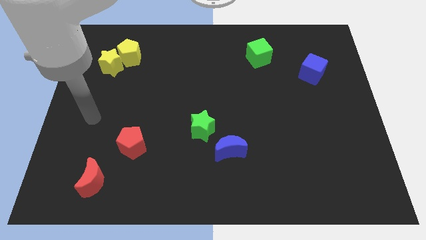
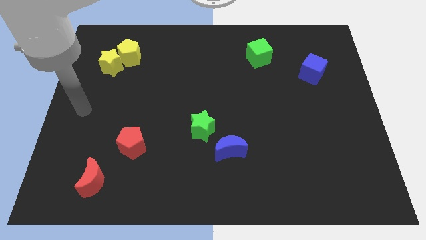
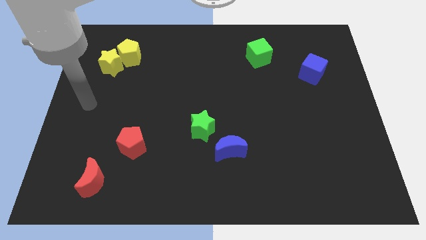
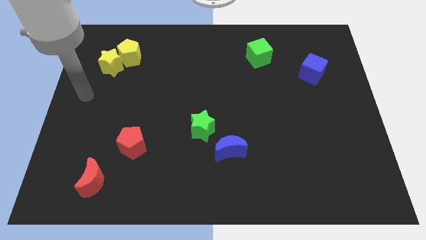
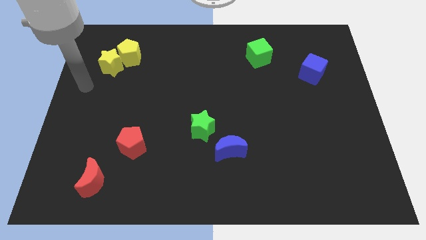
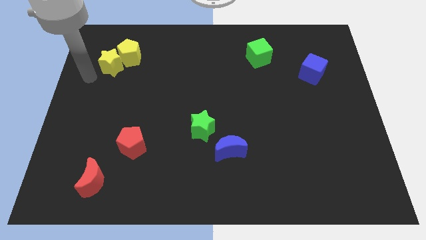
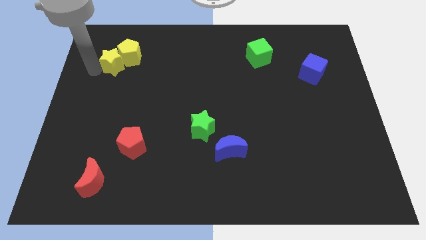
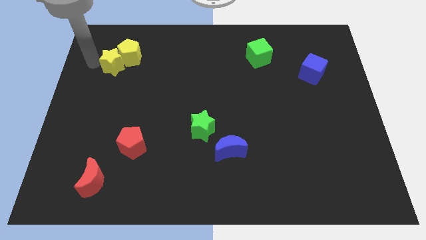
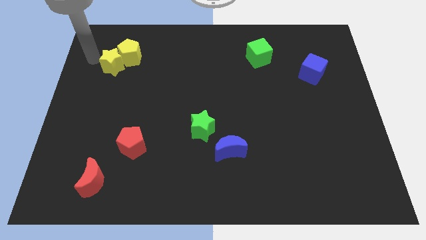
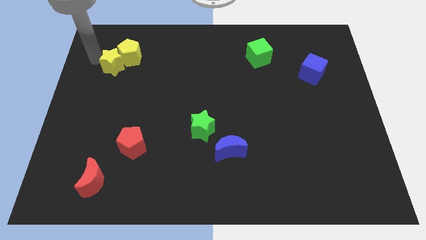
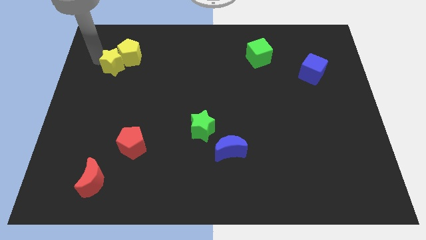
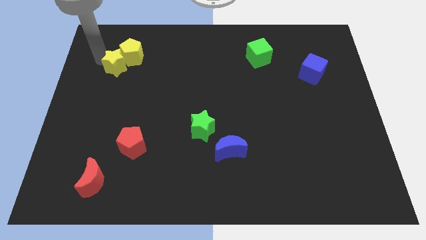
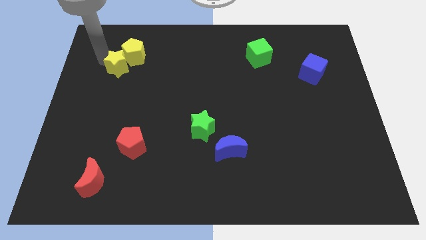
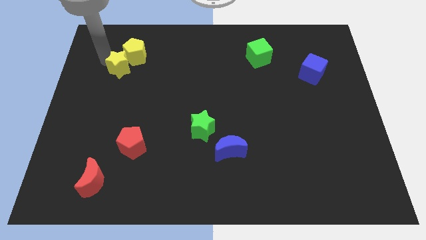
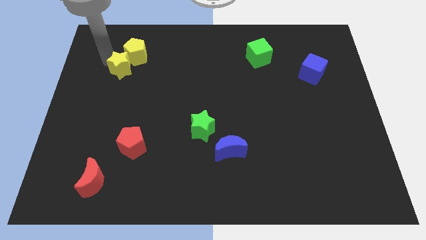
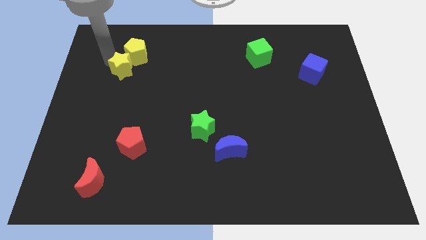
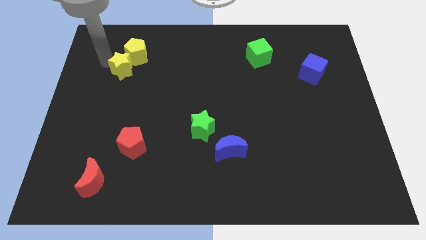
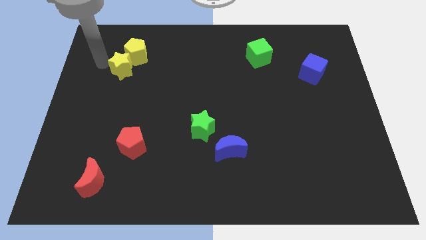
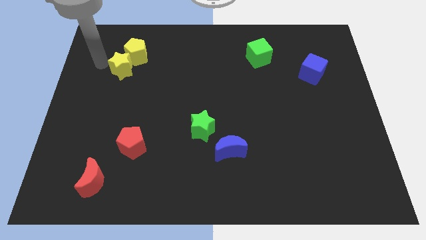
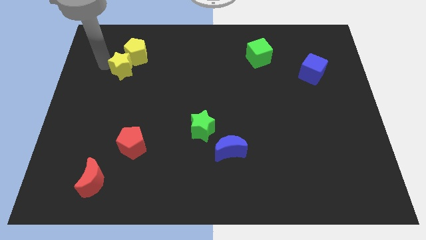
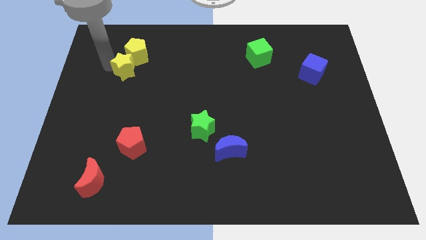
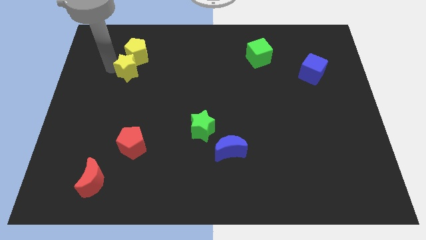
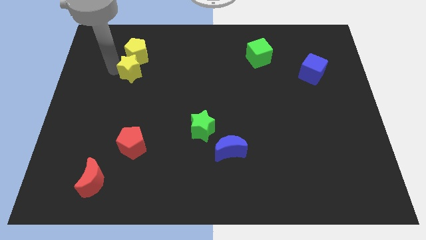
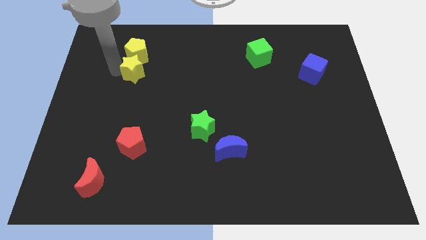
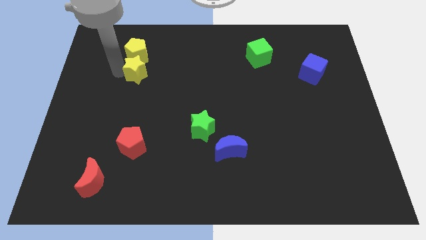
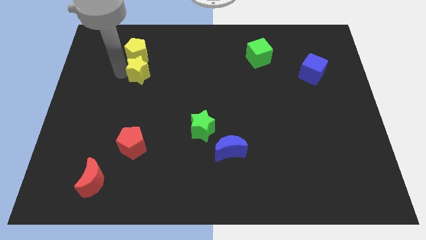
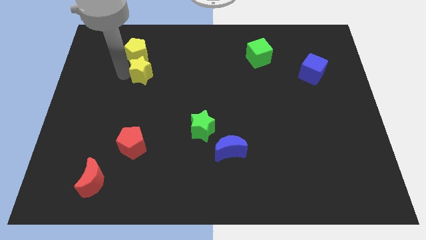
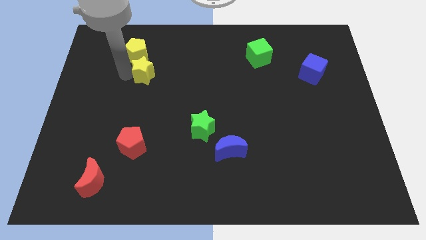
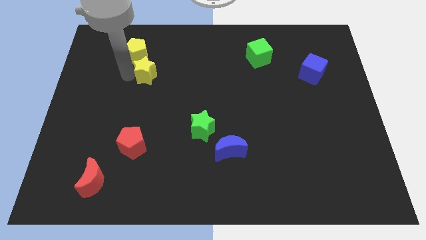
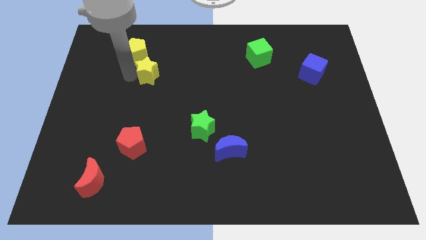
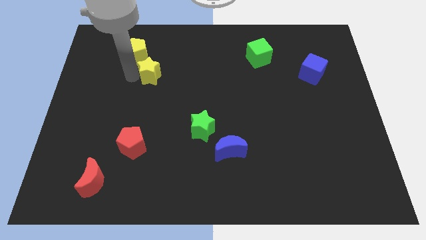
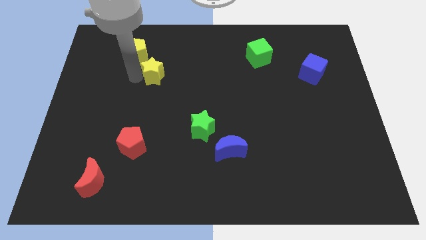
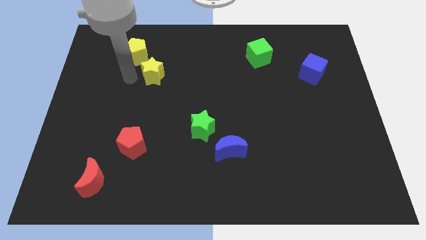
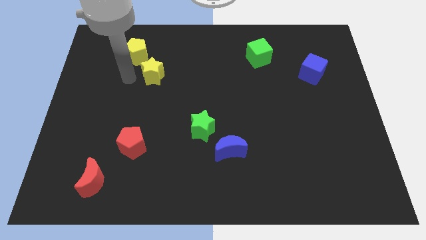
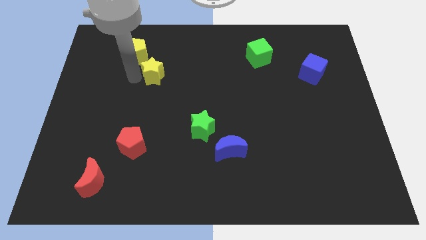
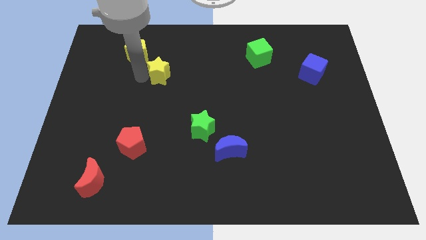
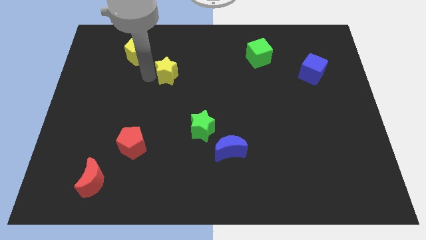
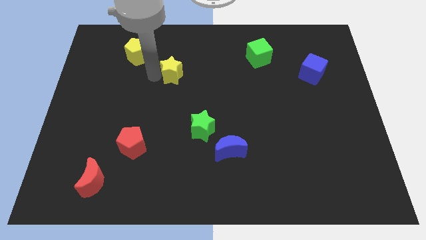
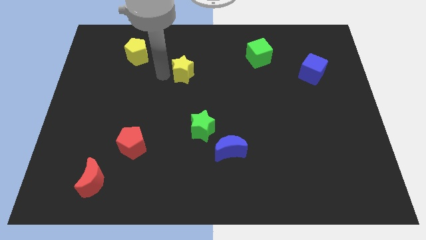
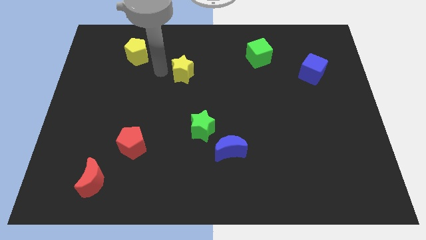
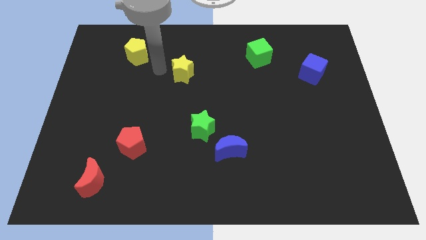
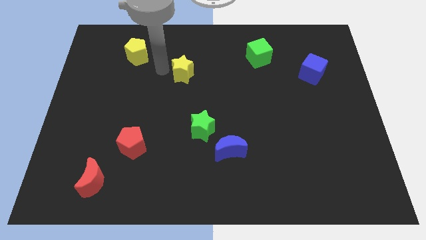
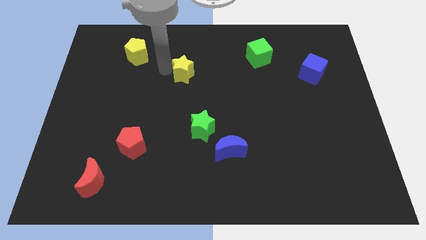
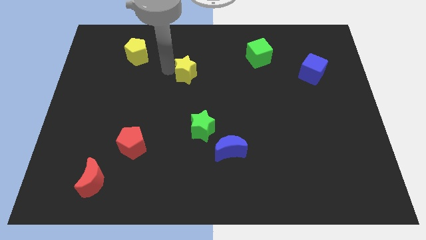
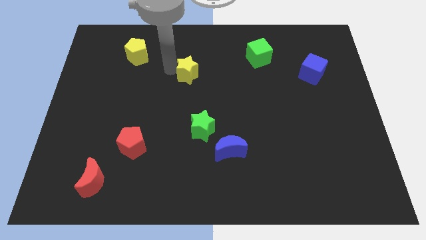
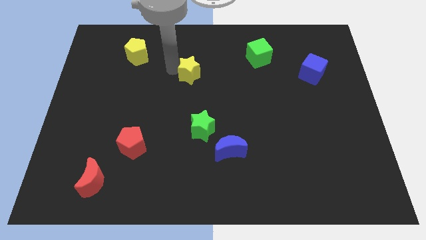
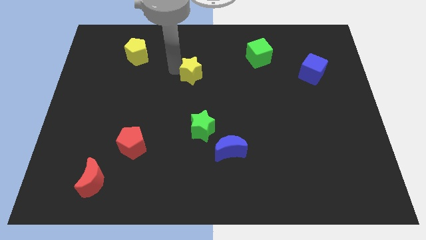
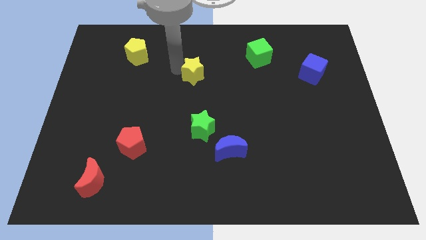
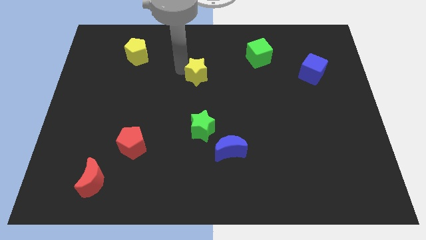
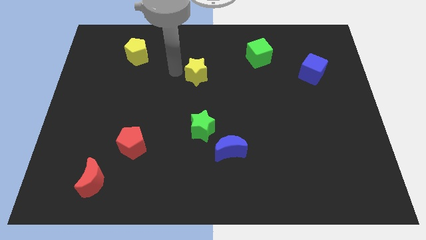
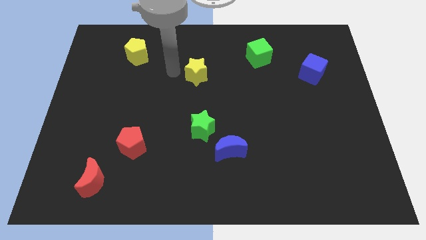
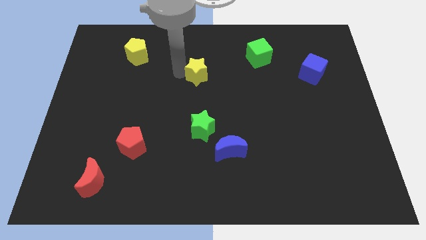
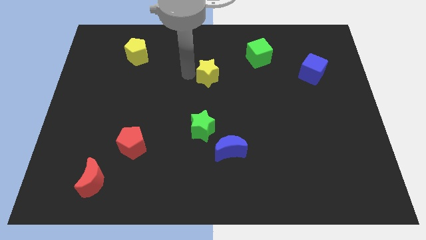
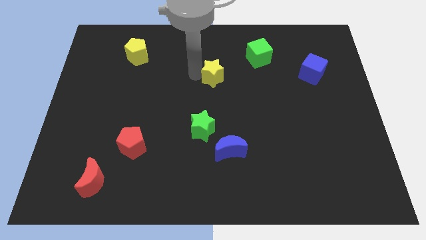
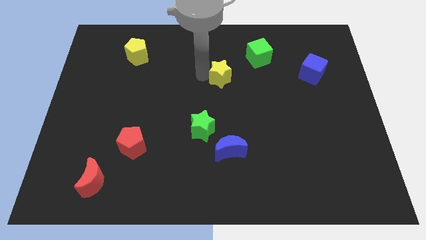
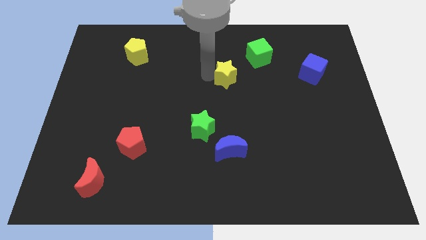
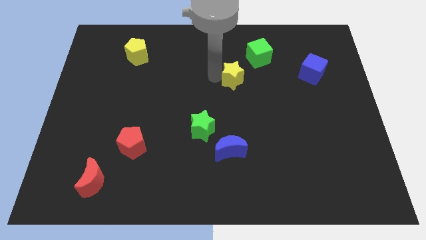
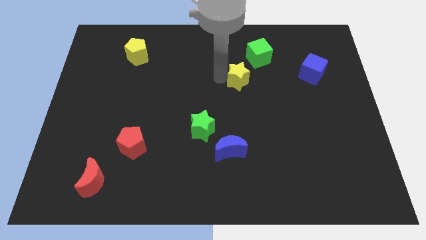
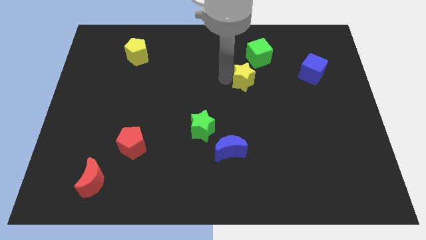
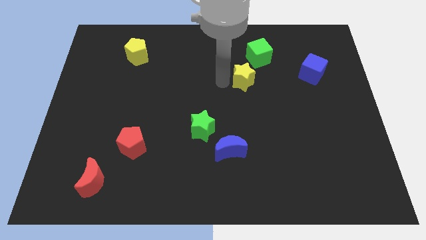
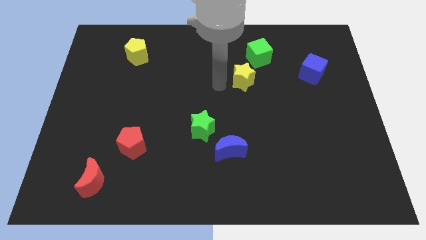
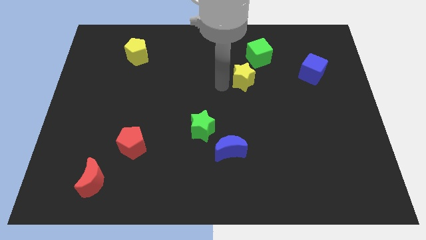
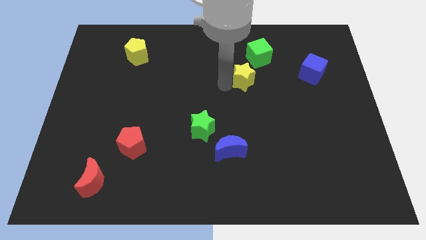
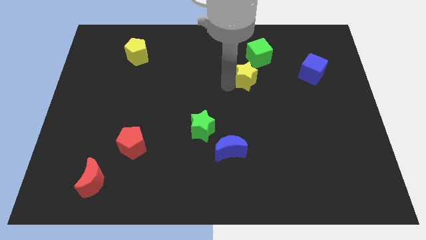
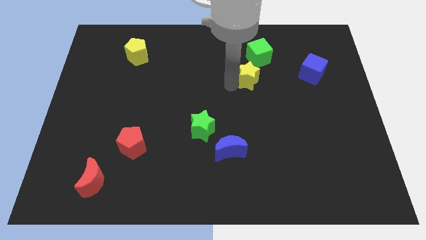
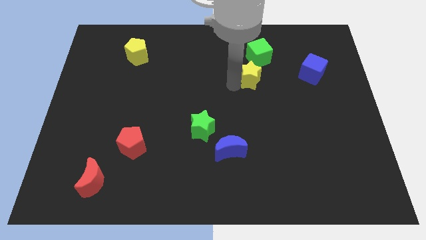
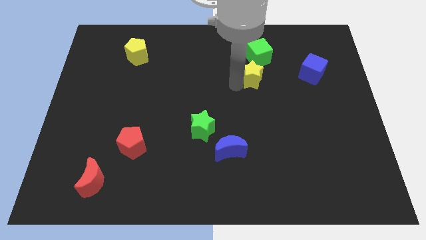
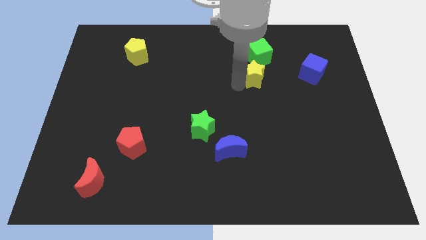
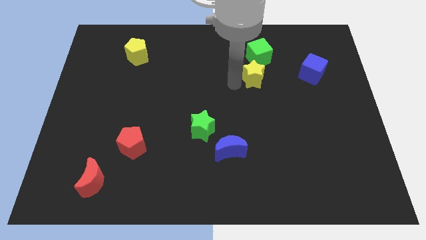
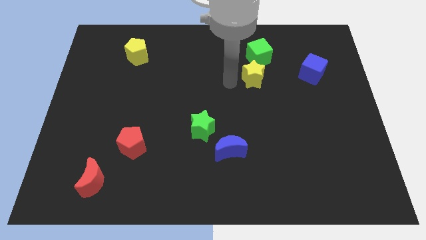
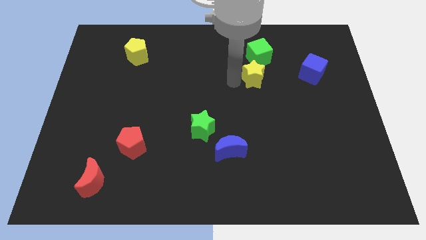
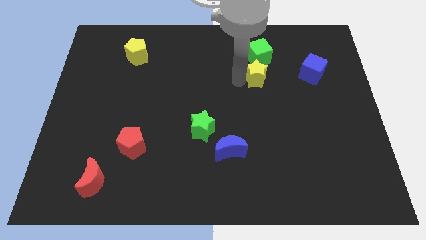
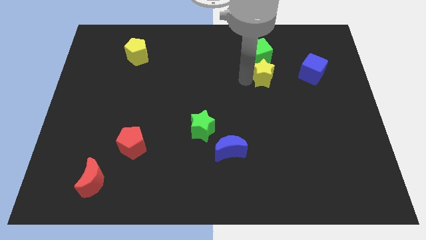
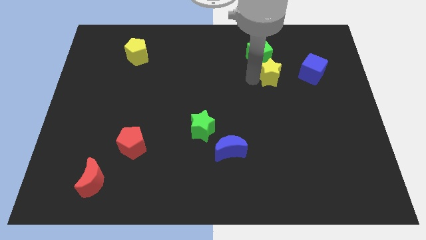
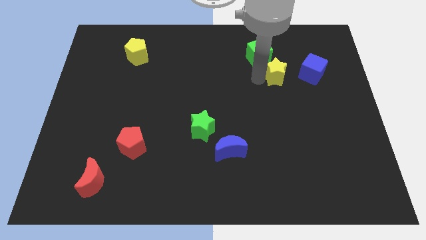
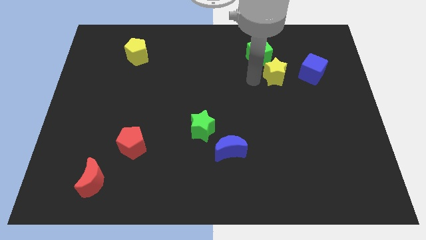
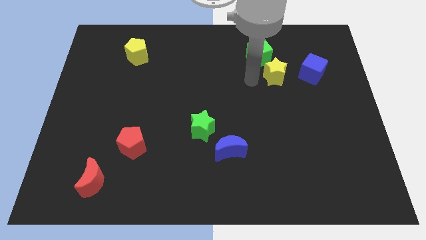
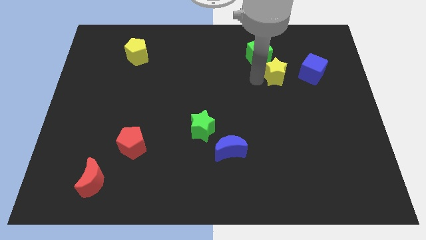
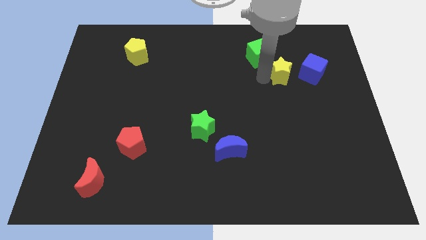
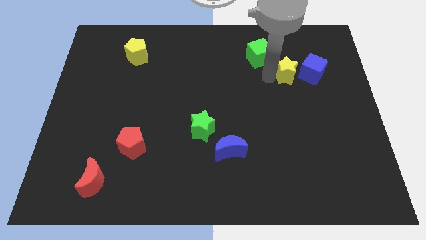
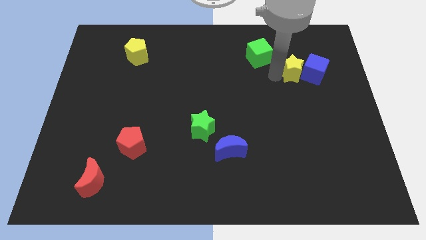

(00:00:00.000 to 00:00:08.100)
move the yellow star next to the blue cube
